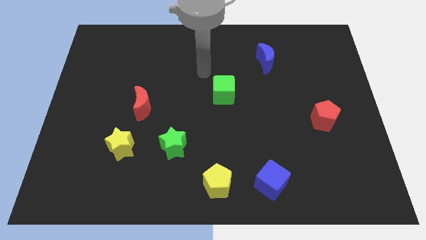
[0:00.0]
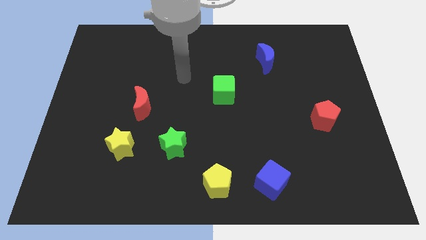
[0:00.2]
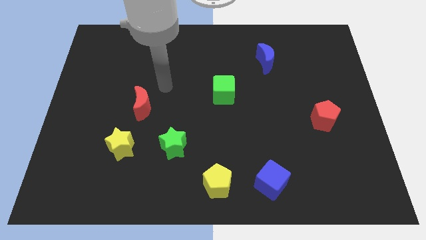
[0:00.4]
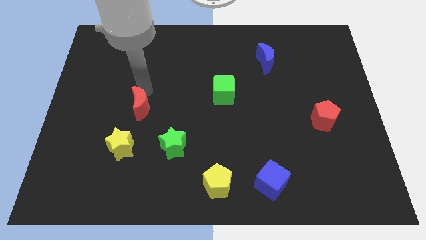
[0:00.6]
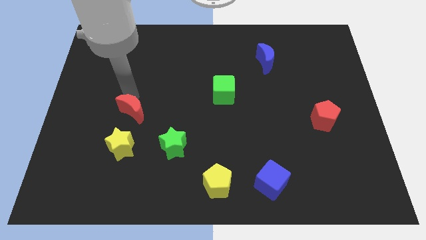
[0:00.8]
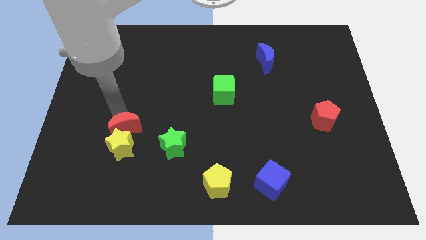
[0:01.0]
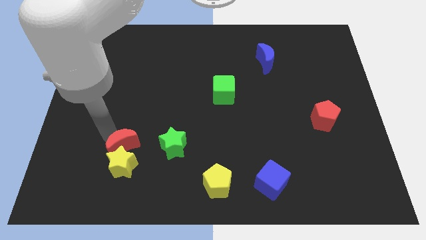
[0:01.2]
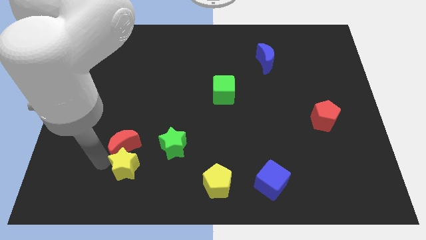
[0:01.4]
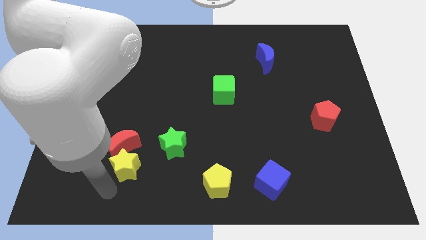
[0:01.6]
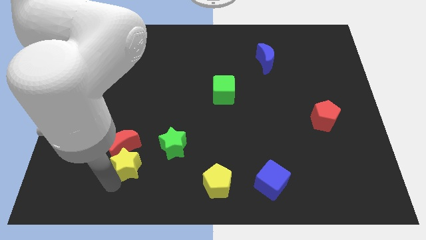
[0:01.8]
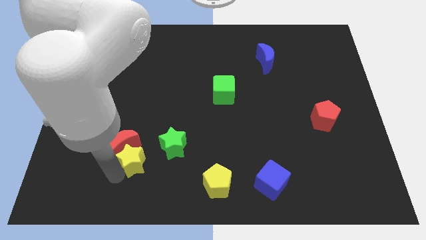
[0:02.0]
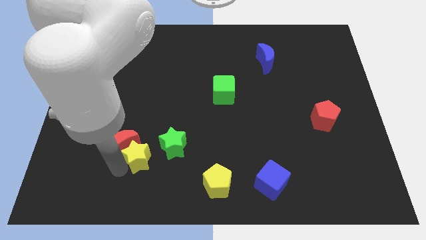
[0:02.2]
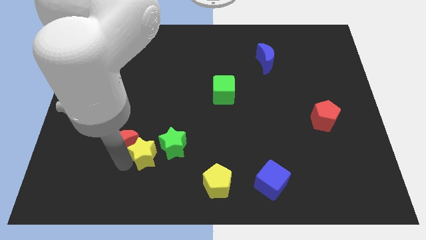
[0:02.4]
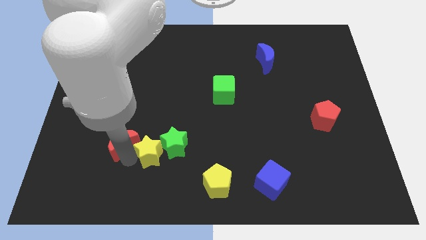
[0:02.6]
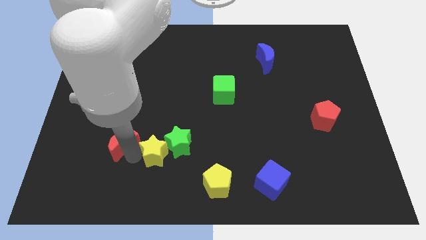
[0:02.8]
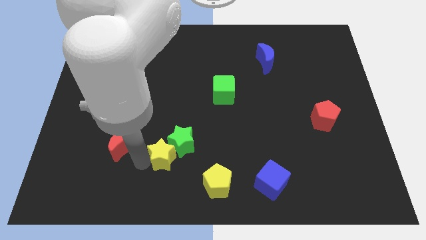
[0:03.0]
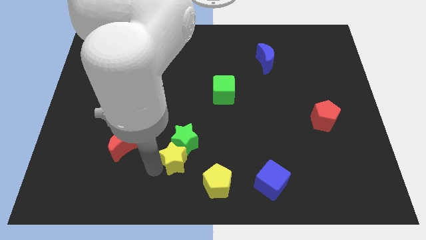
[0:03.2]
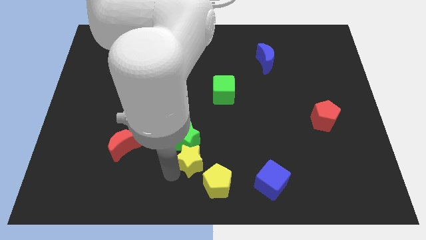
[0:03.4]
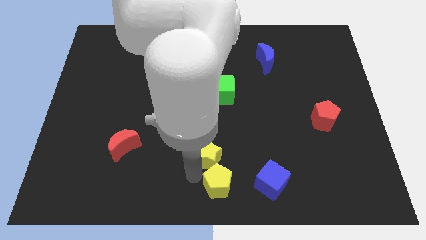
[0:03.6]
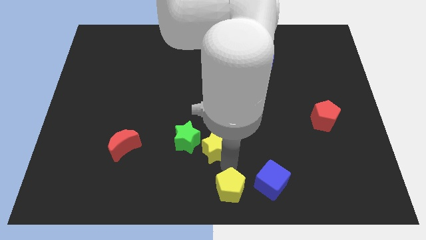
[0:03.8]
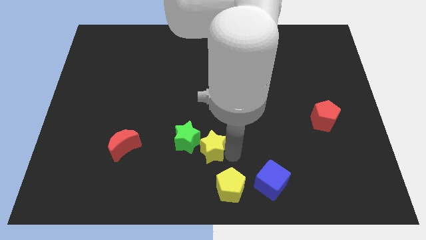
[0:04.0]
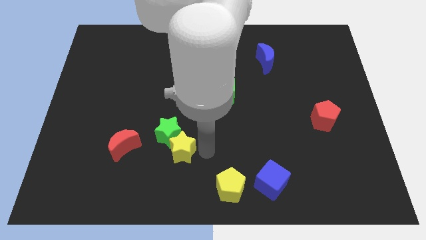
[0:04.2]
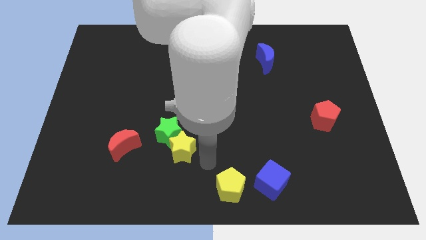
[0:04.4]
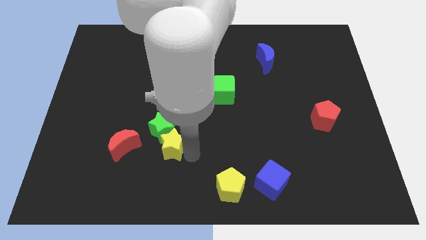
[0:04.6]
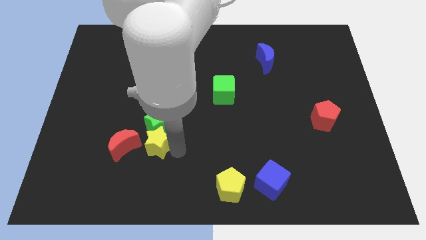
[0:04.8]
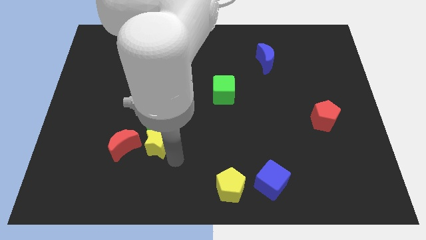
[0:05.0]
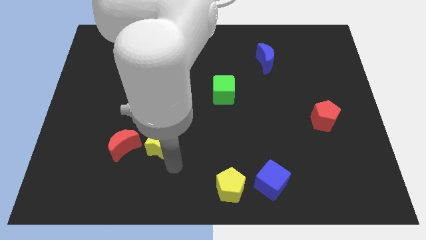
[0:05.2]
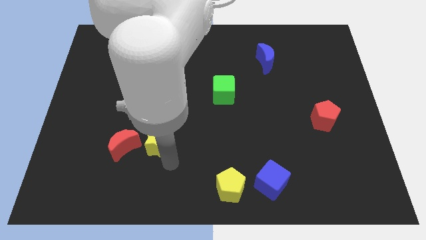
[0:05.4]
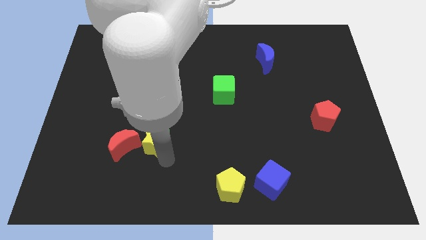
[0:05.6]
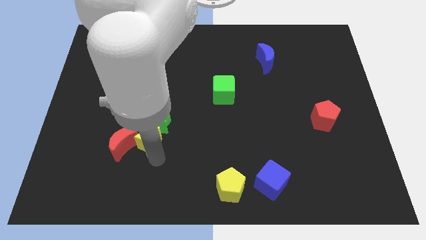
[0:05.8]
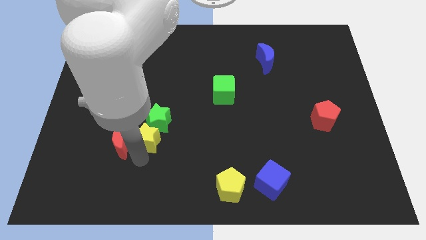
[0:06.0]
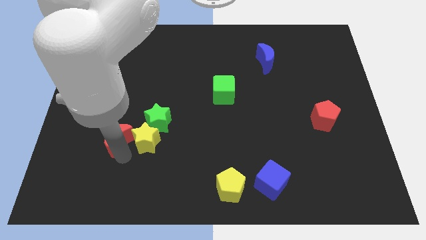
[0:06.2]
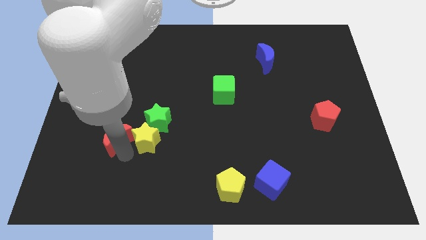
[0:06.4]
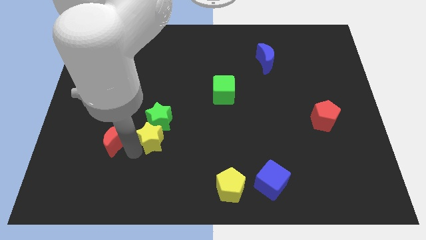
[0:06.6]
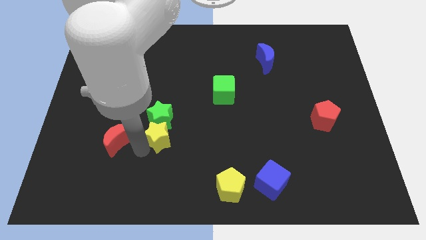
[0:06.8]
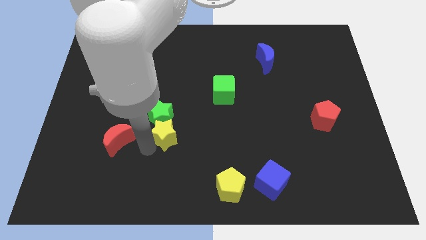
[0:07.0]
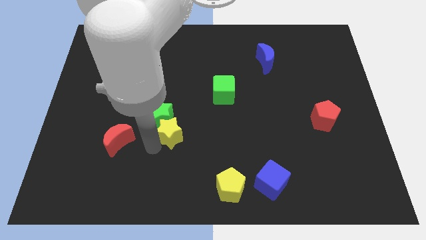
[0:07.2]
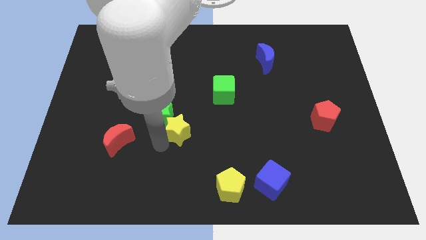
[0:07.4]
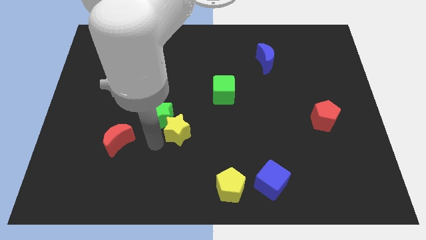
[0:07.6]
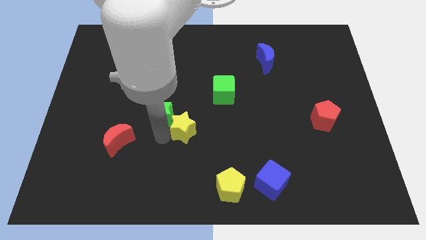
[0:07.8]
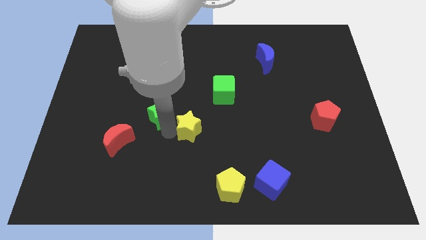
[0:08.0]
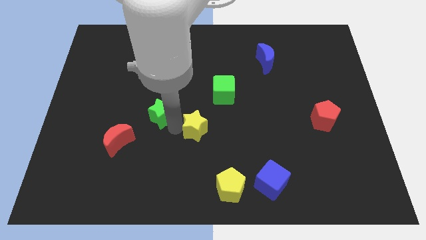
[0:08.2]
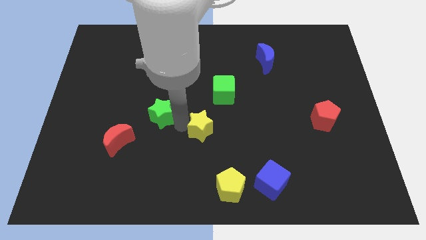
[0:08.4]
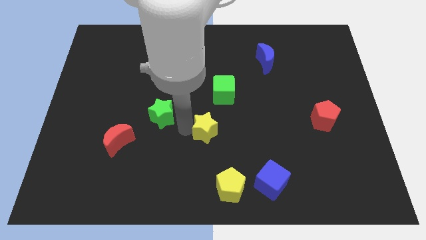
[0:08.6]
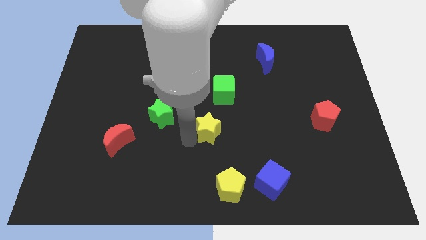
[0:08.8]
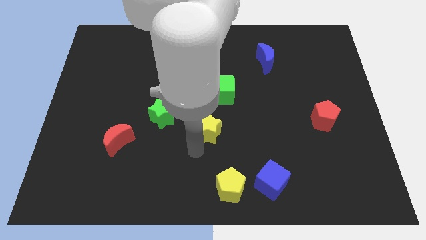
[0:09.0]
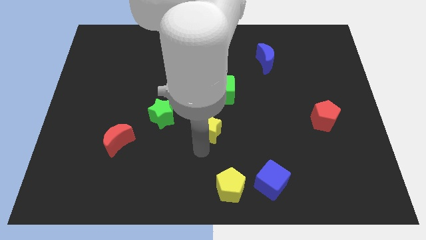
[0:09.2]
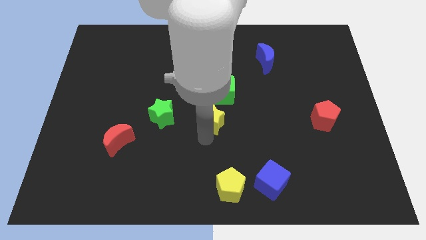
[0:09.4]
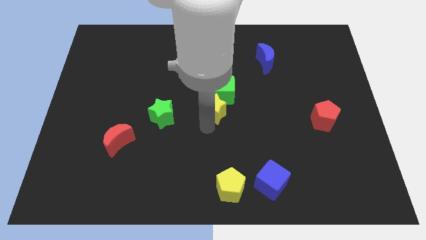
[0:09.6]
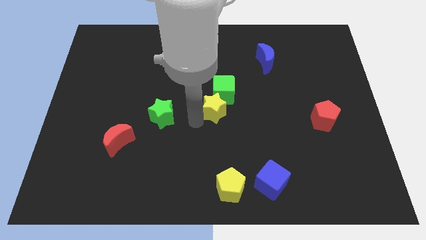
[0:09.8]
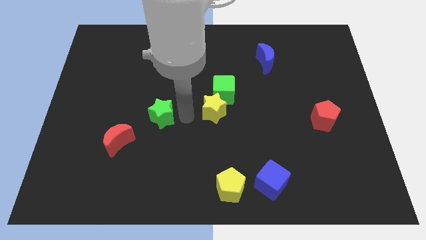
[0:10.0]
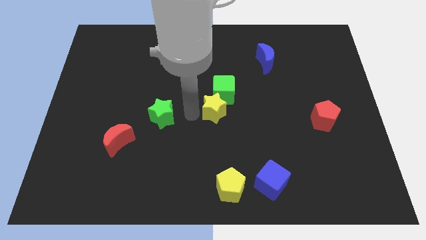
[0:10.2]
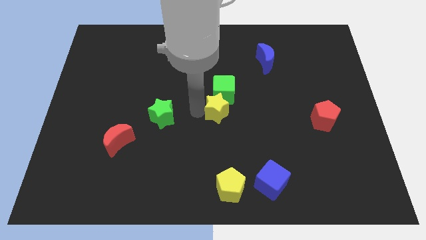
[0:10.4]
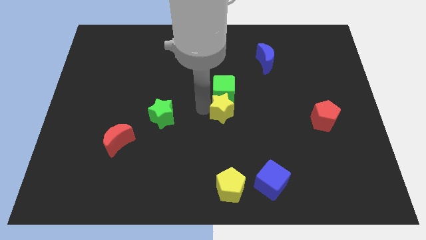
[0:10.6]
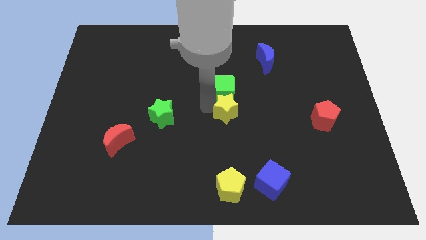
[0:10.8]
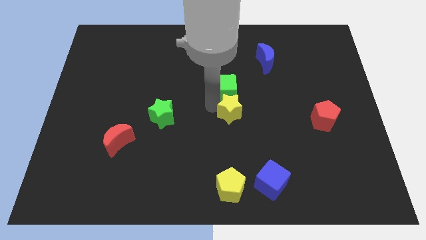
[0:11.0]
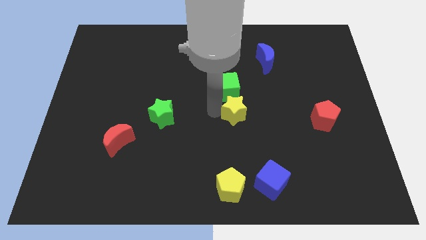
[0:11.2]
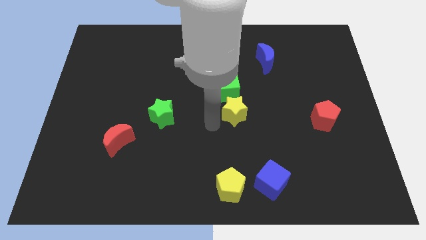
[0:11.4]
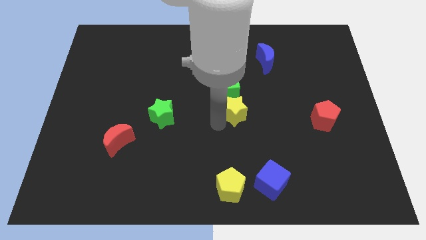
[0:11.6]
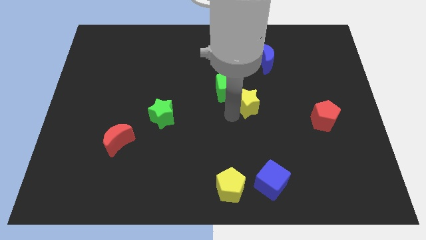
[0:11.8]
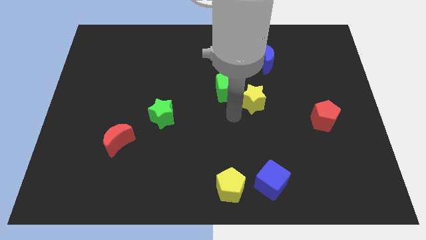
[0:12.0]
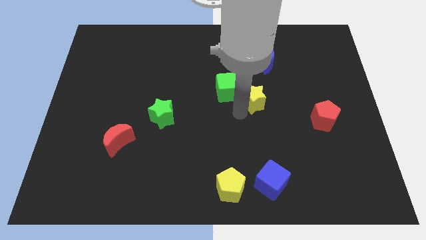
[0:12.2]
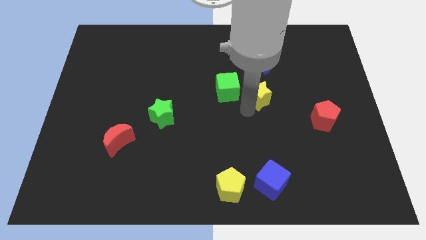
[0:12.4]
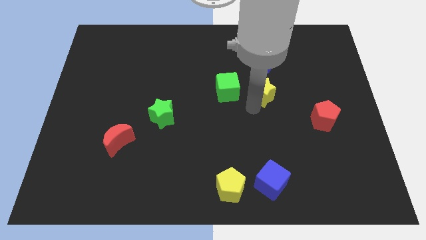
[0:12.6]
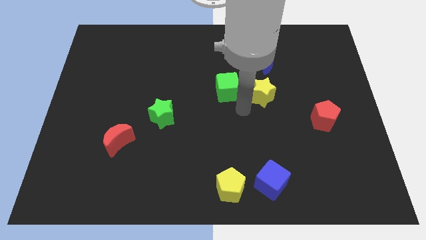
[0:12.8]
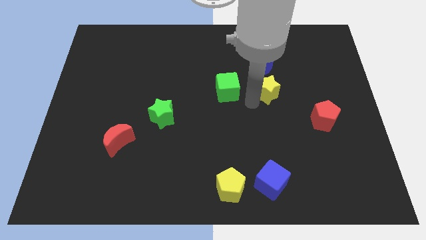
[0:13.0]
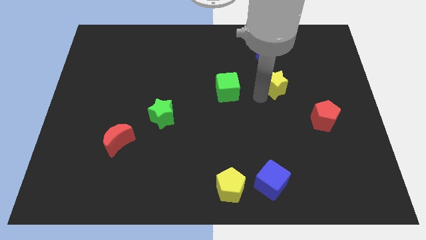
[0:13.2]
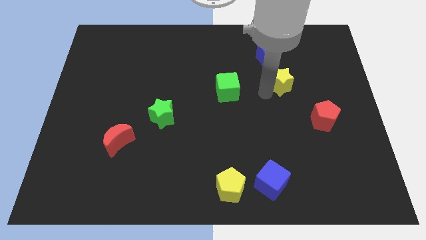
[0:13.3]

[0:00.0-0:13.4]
slide the yellow star diagonally down and to the right of the blue moon

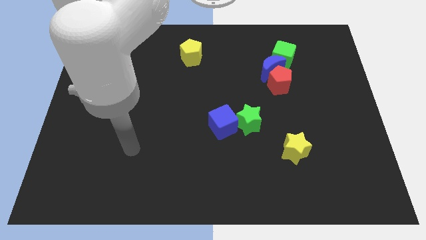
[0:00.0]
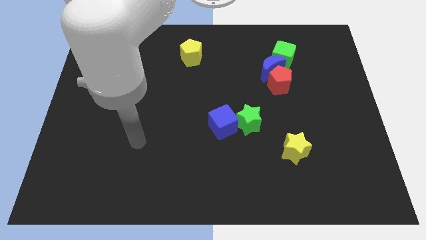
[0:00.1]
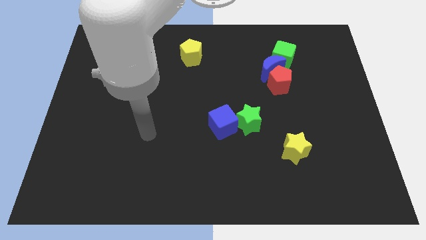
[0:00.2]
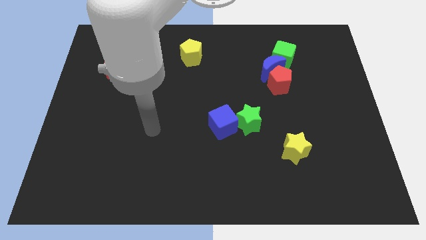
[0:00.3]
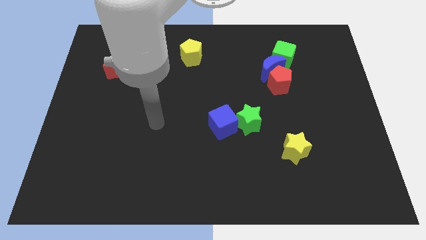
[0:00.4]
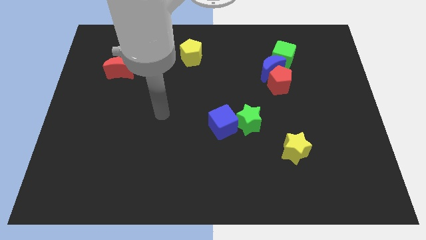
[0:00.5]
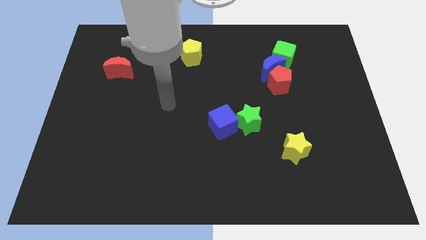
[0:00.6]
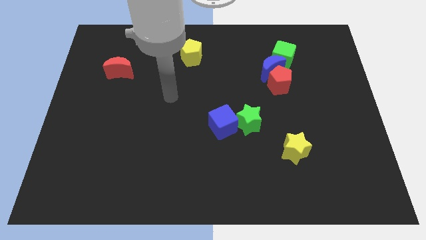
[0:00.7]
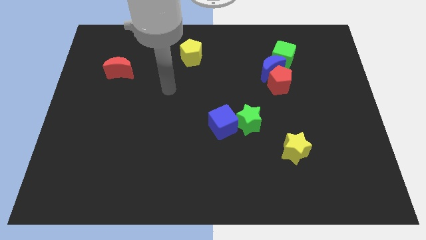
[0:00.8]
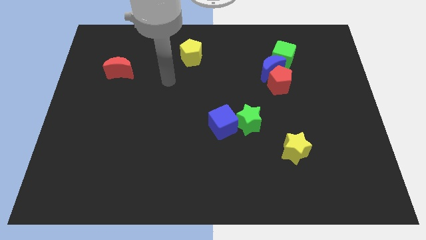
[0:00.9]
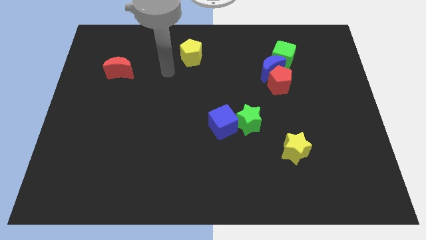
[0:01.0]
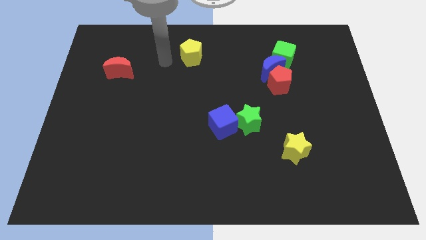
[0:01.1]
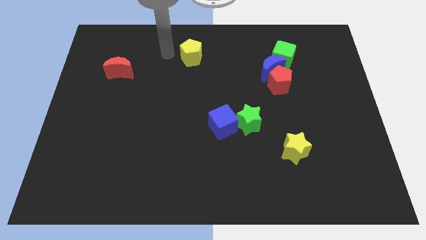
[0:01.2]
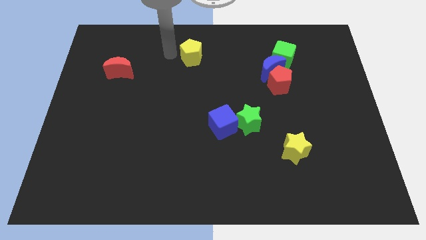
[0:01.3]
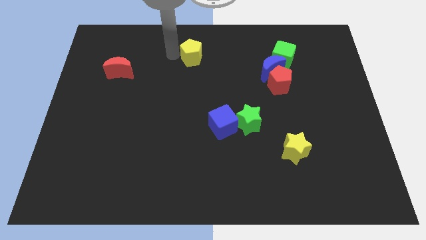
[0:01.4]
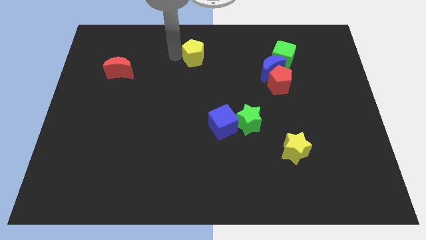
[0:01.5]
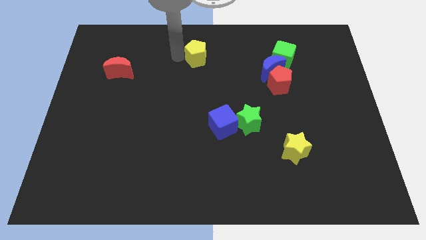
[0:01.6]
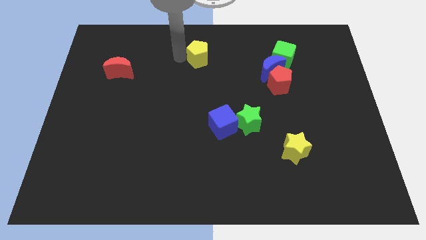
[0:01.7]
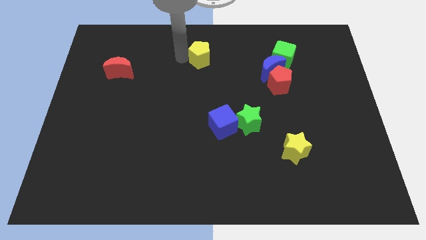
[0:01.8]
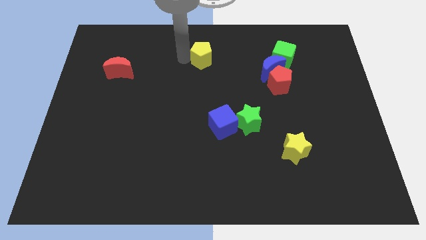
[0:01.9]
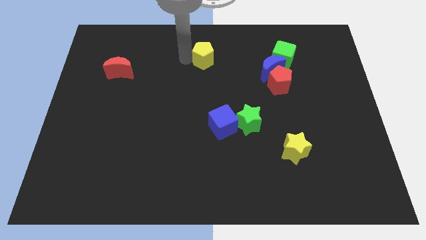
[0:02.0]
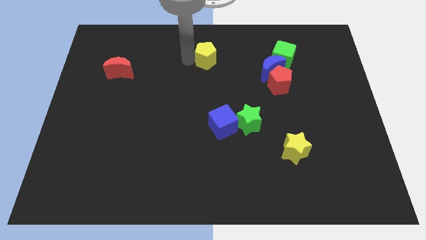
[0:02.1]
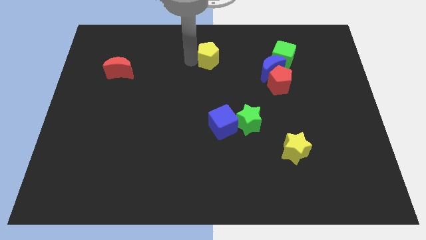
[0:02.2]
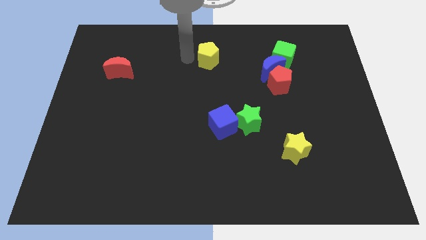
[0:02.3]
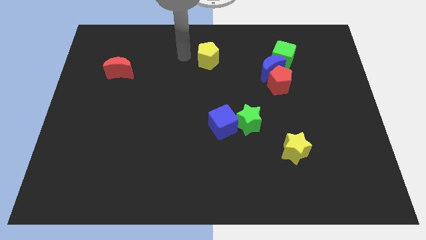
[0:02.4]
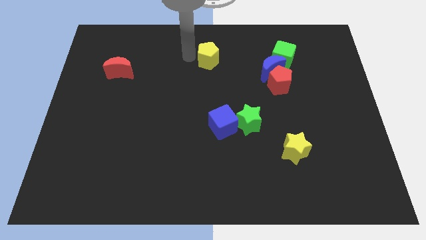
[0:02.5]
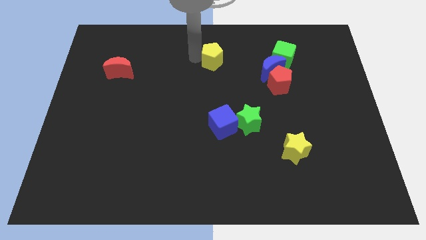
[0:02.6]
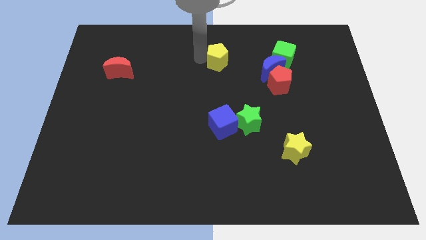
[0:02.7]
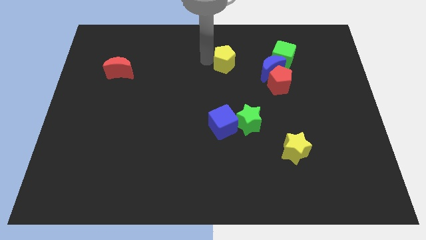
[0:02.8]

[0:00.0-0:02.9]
move the yellow pentagon just left of the green cube
